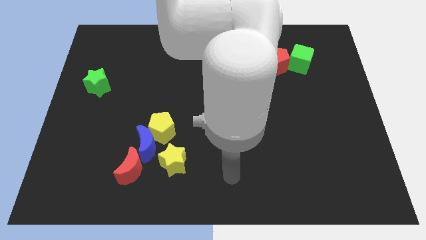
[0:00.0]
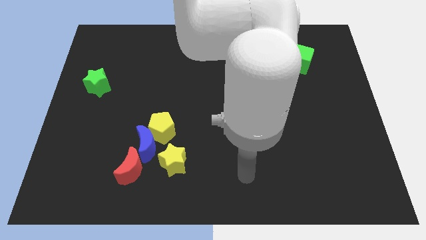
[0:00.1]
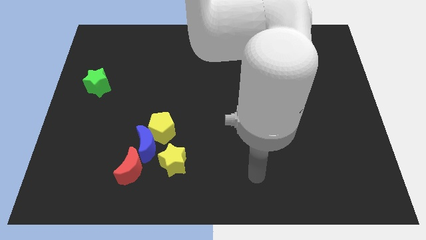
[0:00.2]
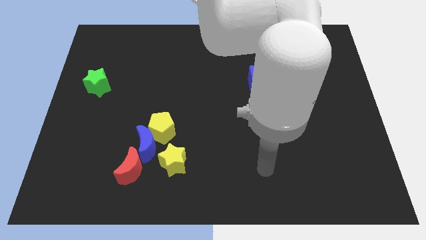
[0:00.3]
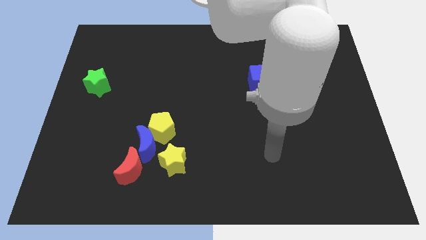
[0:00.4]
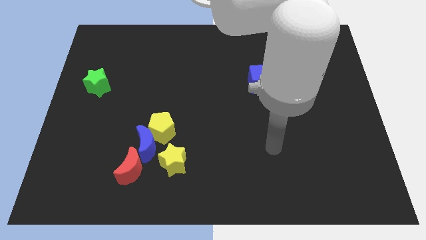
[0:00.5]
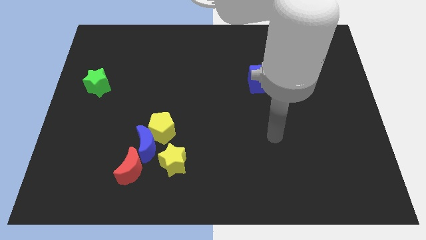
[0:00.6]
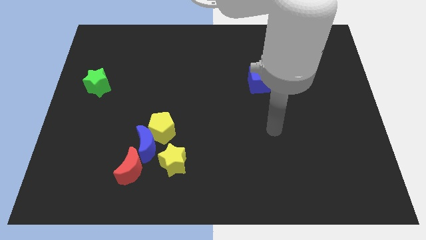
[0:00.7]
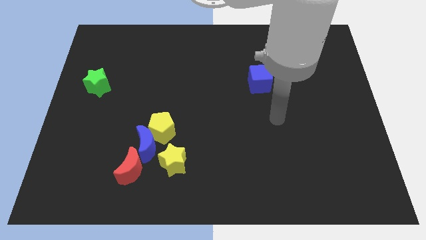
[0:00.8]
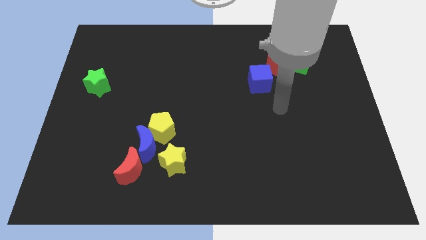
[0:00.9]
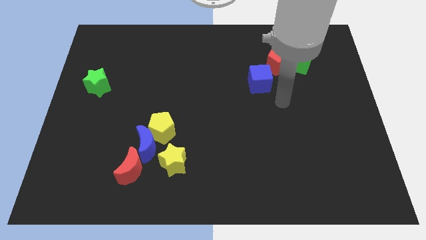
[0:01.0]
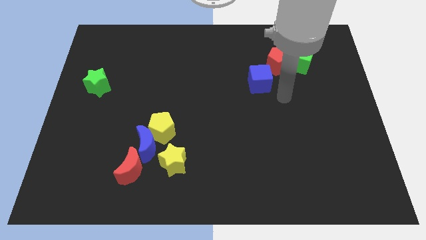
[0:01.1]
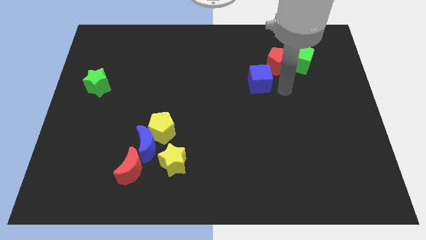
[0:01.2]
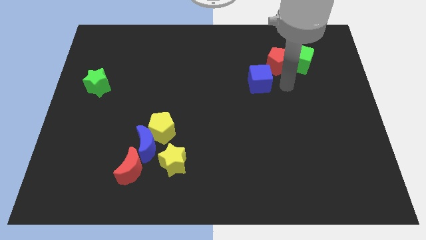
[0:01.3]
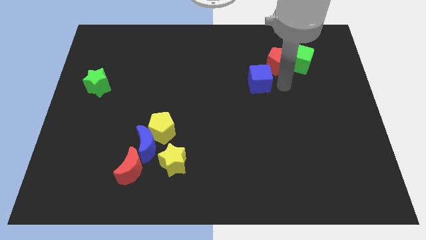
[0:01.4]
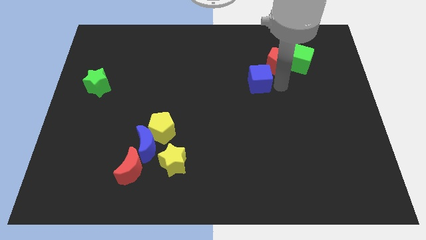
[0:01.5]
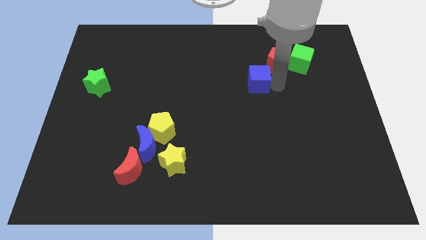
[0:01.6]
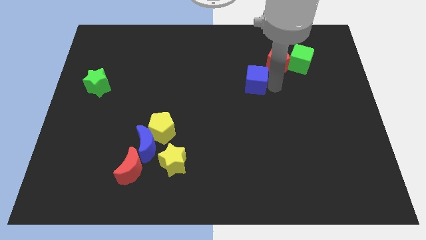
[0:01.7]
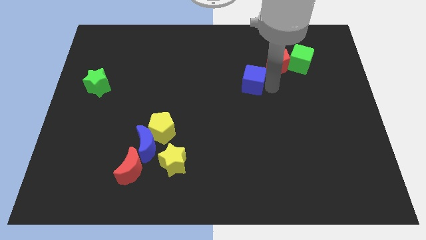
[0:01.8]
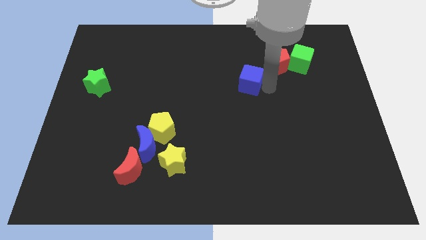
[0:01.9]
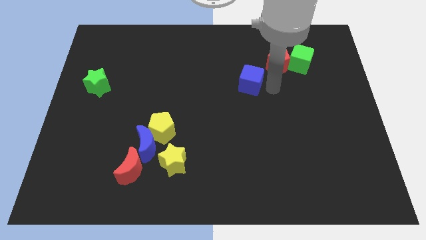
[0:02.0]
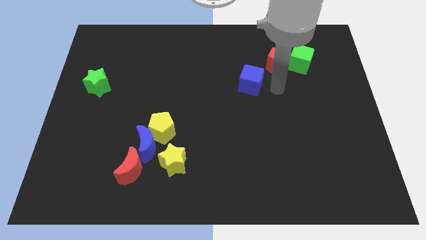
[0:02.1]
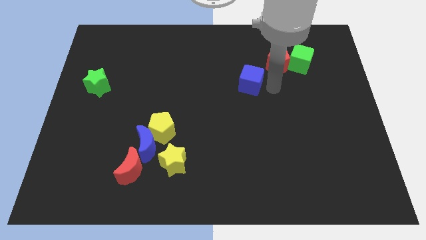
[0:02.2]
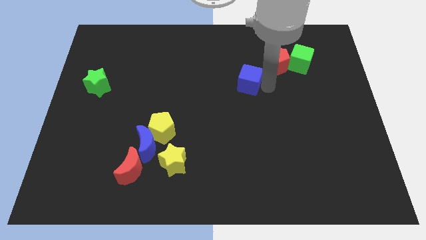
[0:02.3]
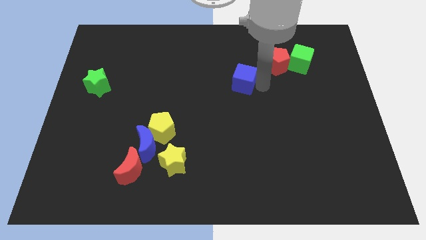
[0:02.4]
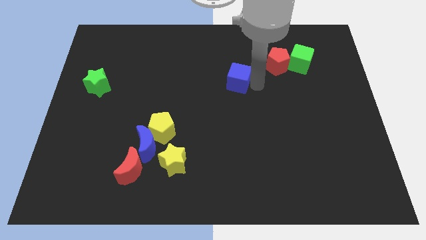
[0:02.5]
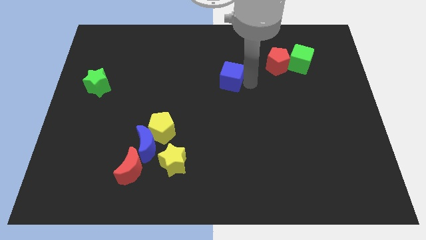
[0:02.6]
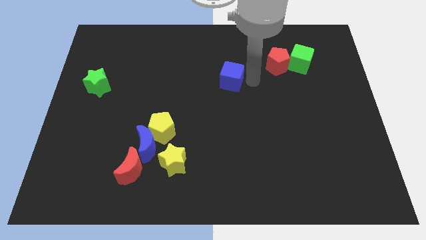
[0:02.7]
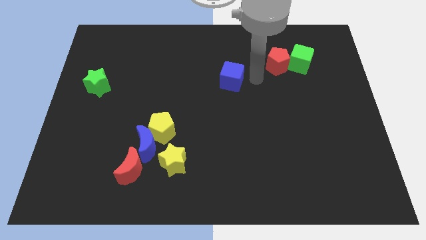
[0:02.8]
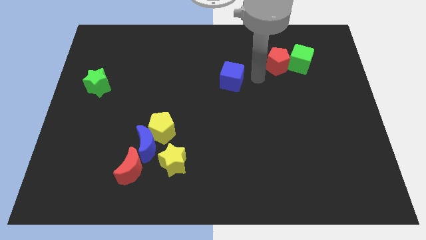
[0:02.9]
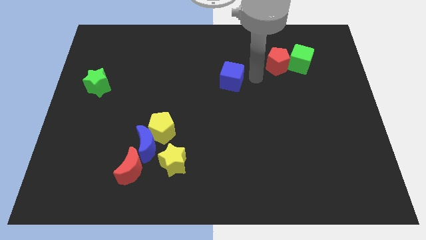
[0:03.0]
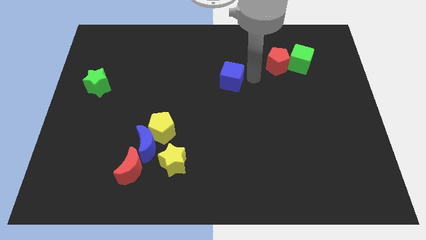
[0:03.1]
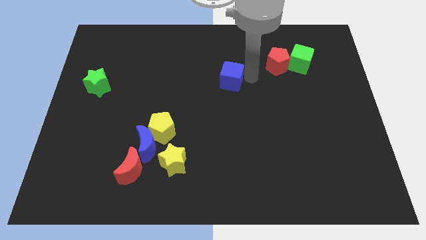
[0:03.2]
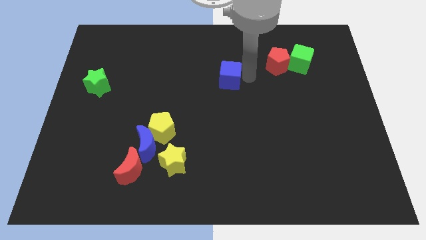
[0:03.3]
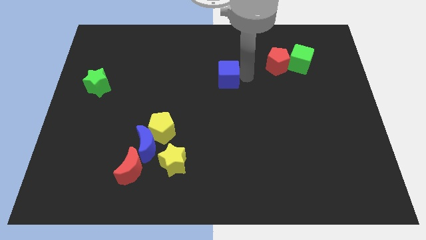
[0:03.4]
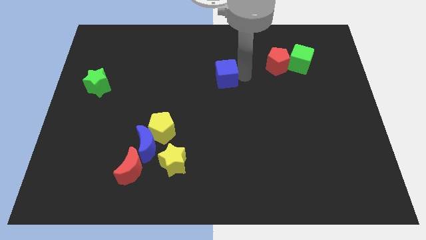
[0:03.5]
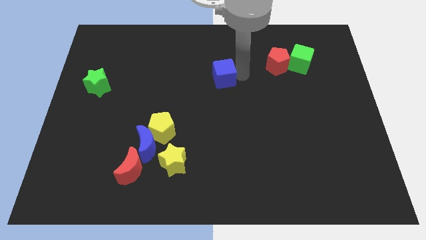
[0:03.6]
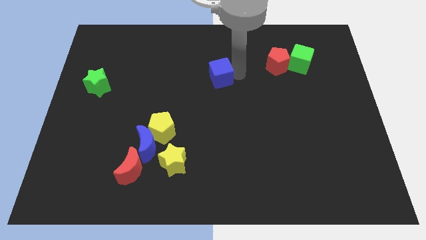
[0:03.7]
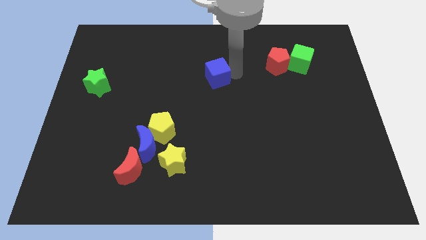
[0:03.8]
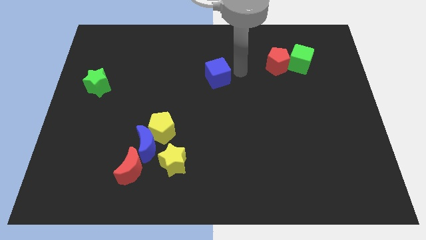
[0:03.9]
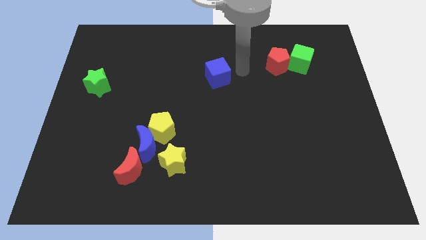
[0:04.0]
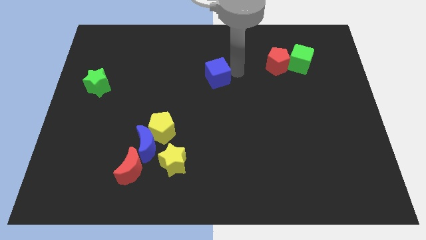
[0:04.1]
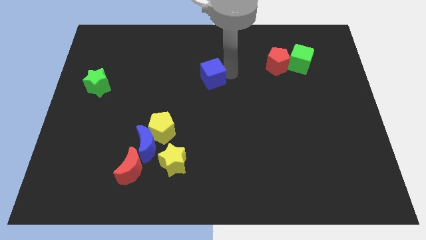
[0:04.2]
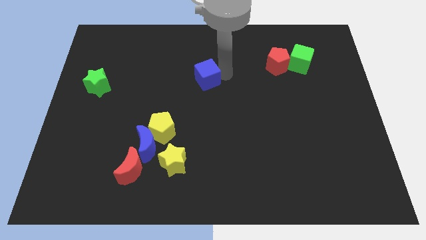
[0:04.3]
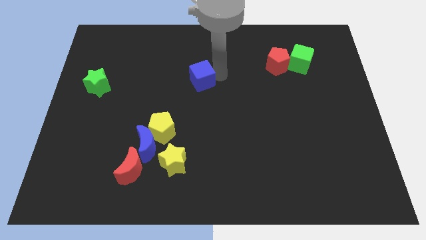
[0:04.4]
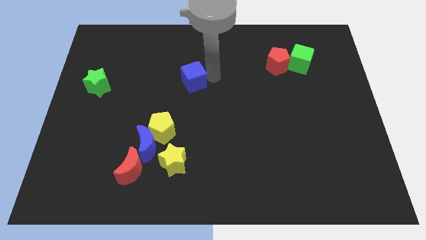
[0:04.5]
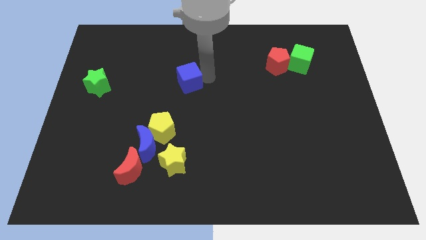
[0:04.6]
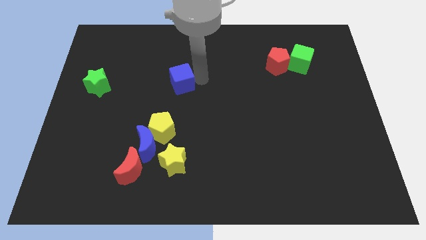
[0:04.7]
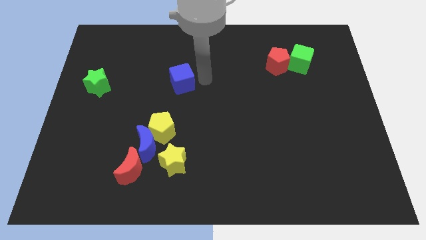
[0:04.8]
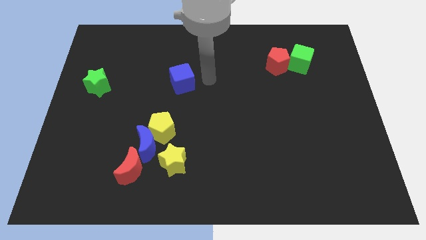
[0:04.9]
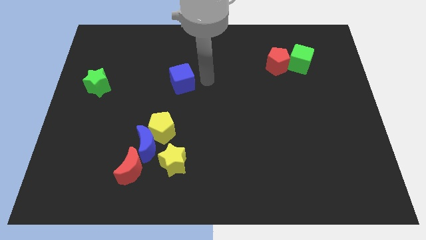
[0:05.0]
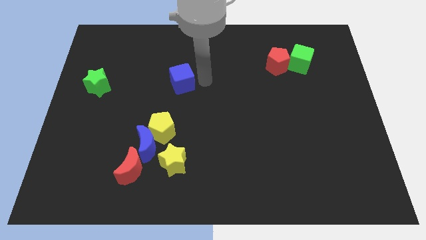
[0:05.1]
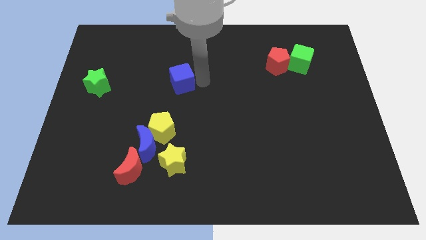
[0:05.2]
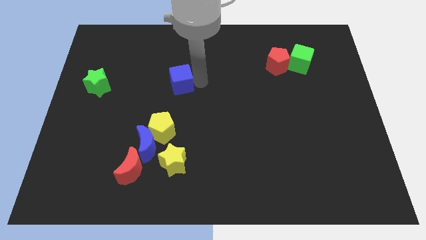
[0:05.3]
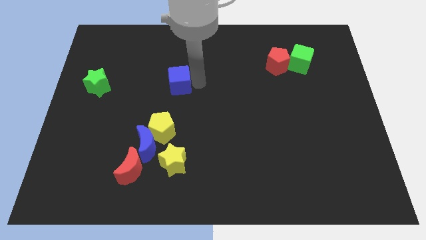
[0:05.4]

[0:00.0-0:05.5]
slide the blue cube to the left

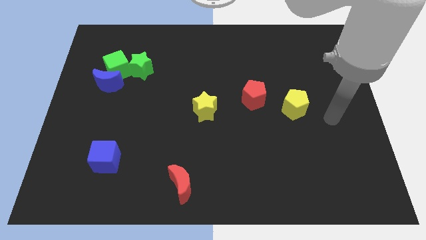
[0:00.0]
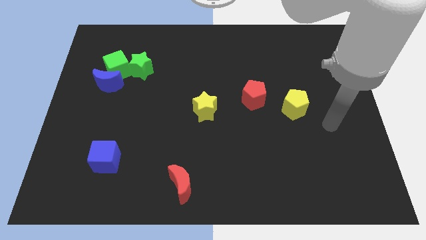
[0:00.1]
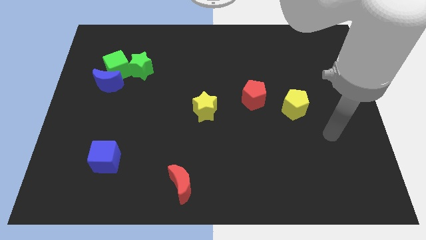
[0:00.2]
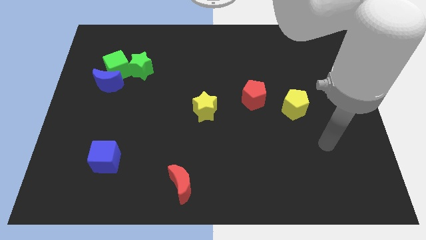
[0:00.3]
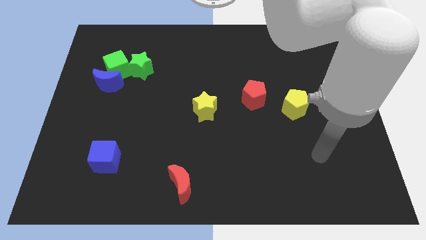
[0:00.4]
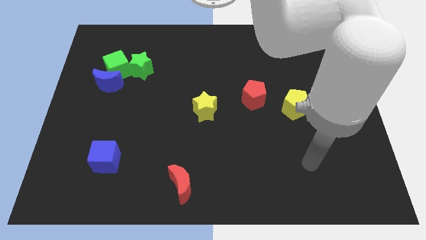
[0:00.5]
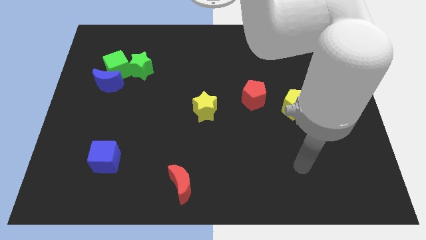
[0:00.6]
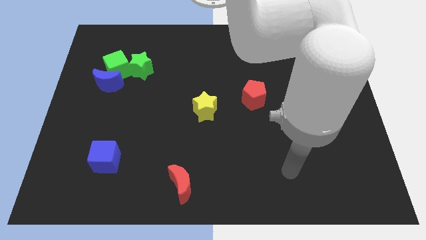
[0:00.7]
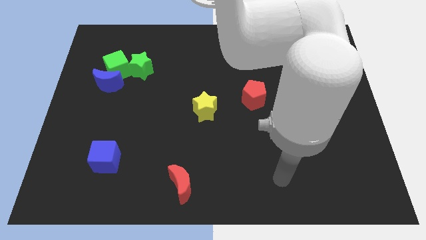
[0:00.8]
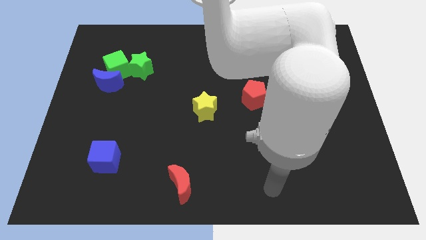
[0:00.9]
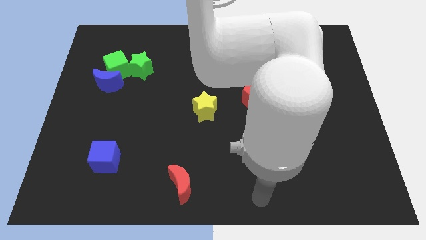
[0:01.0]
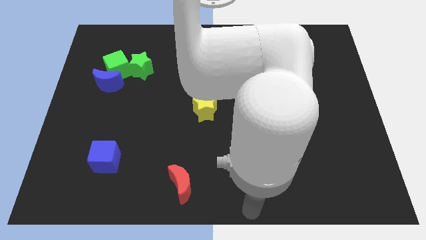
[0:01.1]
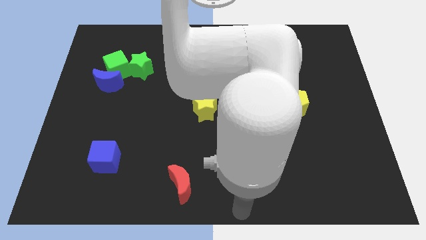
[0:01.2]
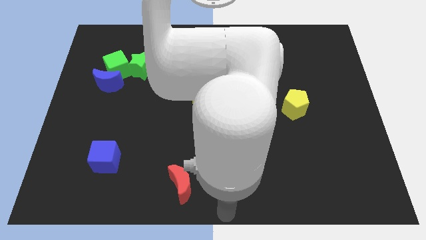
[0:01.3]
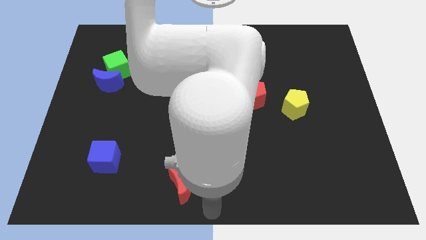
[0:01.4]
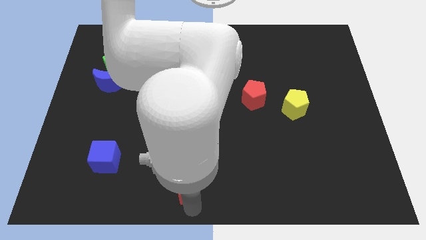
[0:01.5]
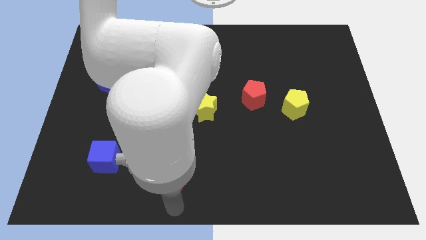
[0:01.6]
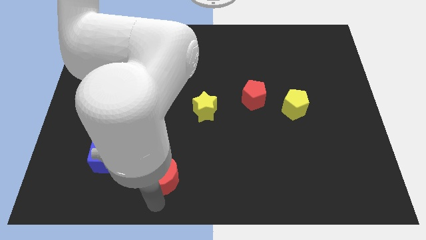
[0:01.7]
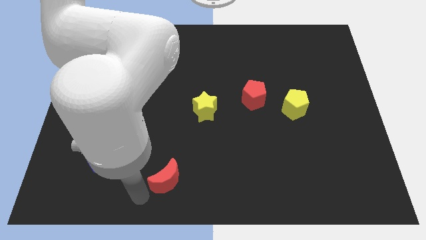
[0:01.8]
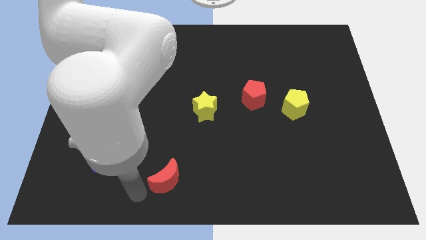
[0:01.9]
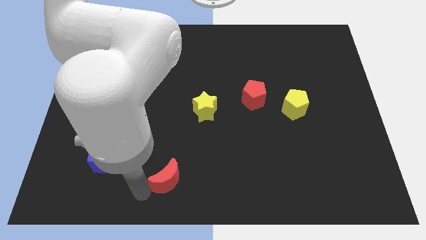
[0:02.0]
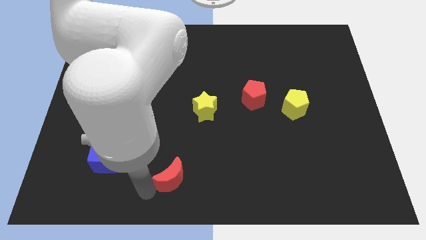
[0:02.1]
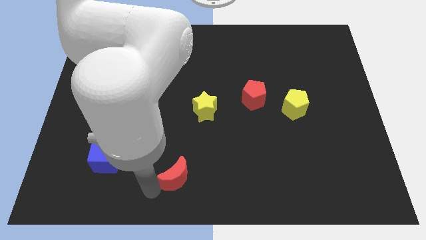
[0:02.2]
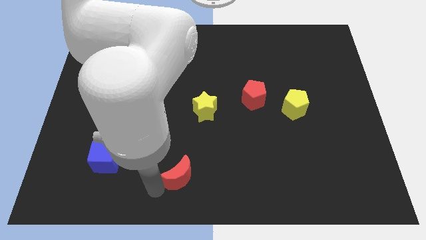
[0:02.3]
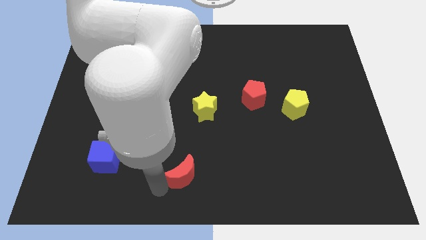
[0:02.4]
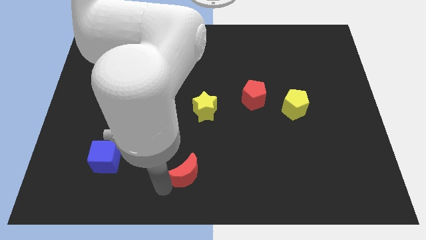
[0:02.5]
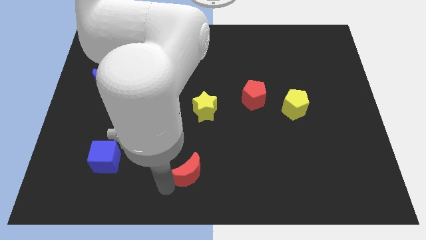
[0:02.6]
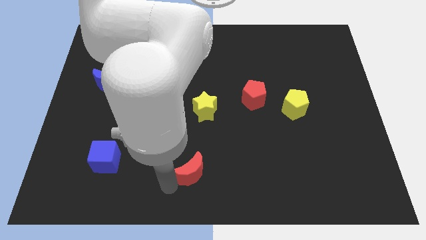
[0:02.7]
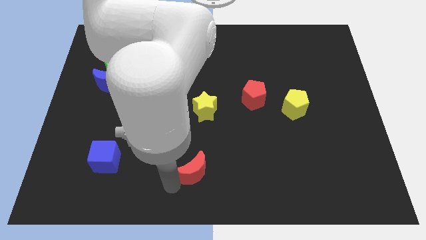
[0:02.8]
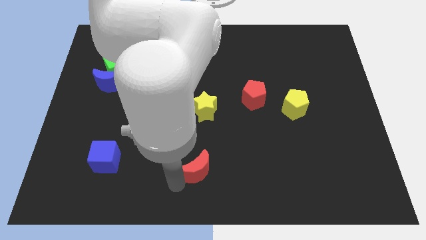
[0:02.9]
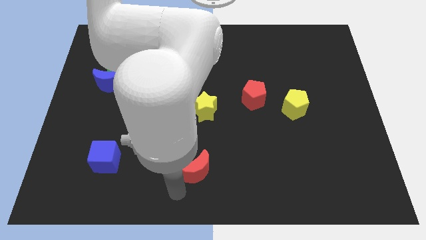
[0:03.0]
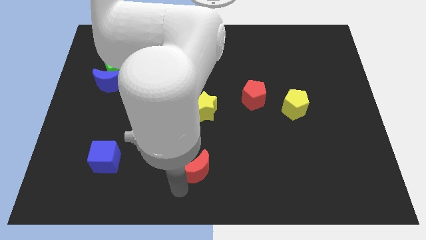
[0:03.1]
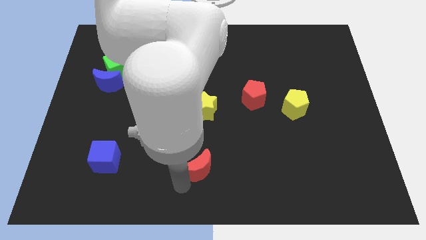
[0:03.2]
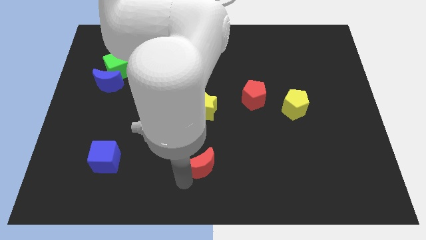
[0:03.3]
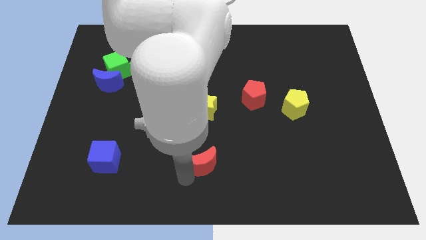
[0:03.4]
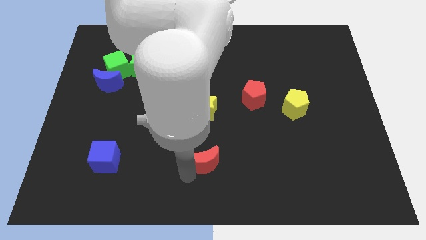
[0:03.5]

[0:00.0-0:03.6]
slightly move the red moon diagonally up and right
